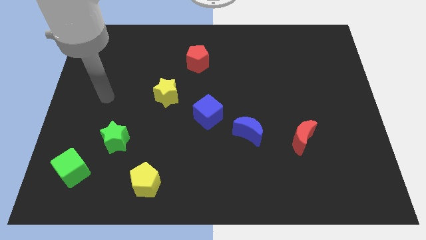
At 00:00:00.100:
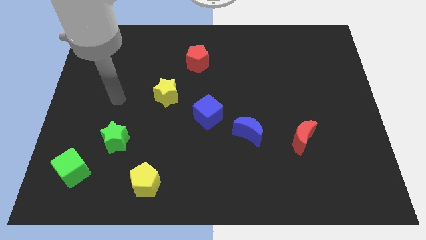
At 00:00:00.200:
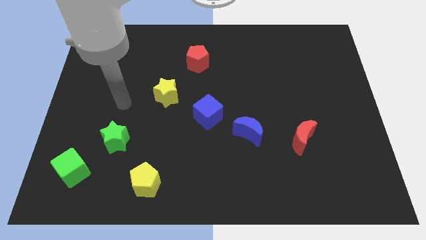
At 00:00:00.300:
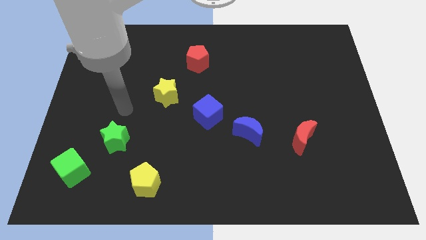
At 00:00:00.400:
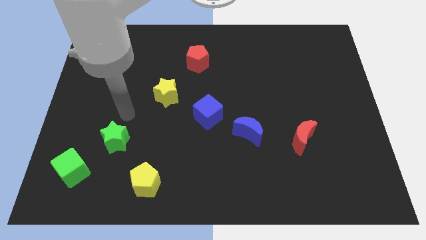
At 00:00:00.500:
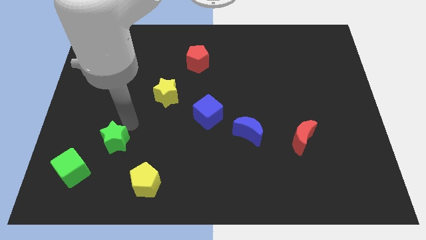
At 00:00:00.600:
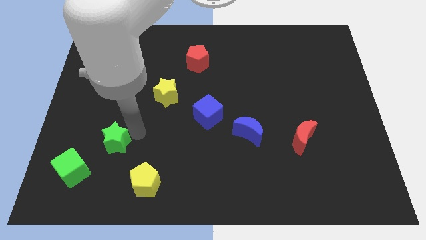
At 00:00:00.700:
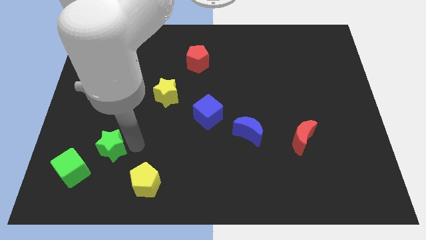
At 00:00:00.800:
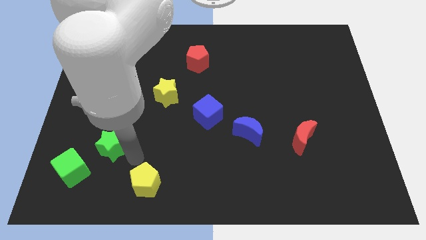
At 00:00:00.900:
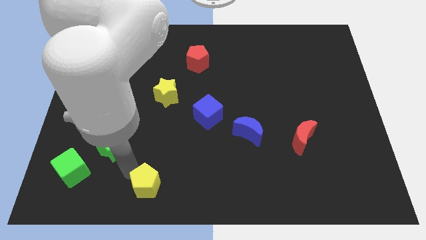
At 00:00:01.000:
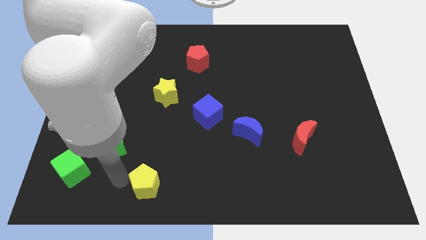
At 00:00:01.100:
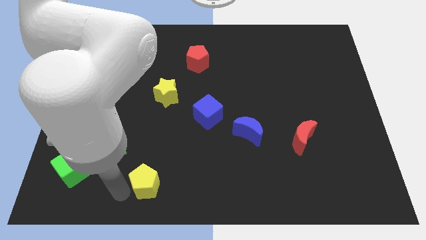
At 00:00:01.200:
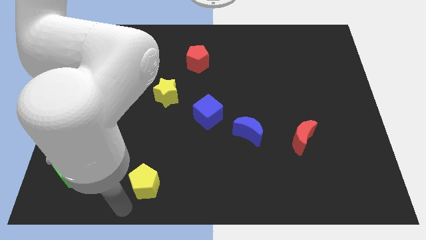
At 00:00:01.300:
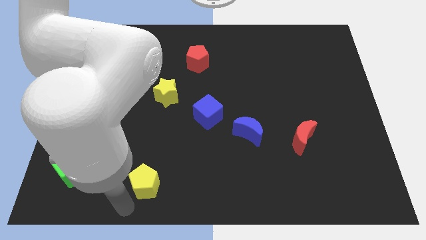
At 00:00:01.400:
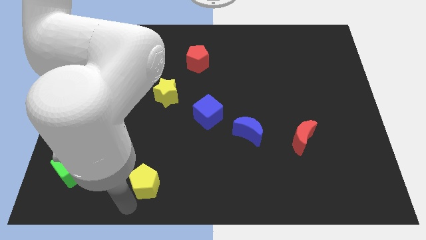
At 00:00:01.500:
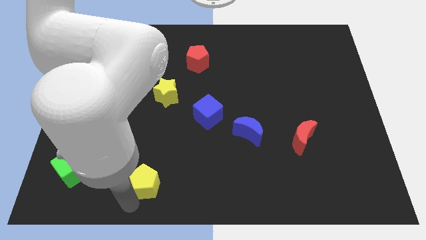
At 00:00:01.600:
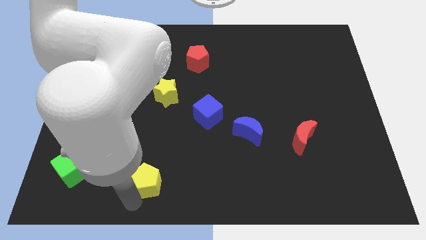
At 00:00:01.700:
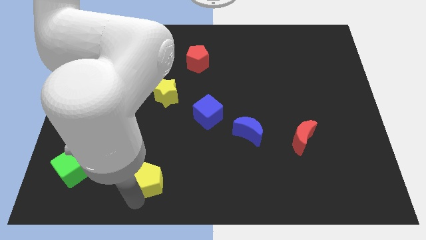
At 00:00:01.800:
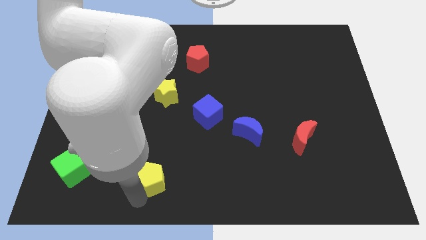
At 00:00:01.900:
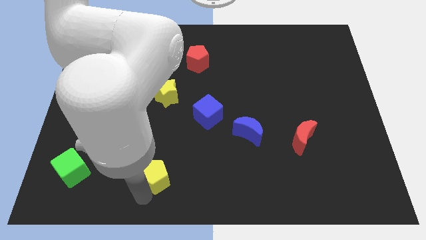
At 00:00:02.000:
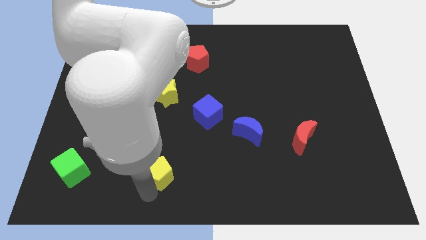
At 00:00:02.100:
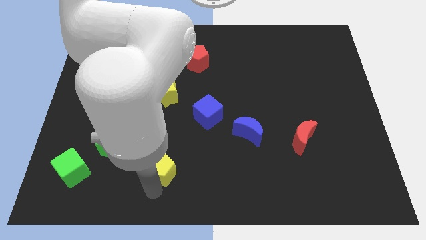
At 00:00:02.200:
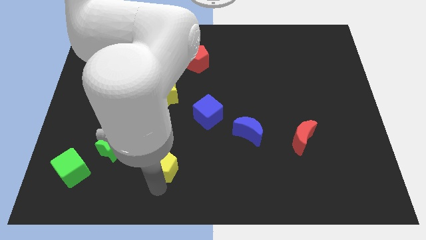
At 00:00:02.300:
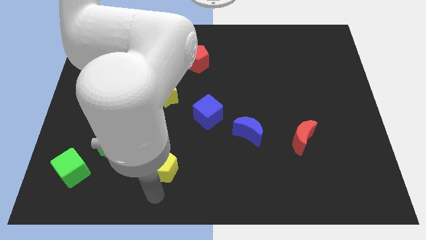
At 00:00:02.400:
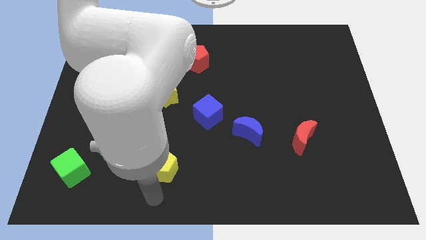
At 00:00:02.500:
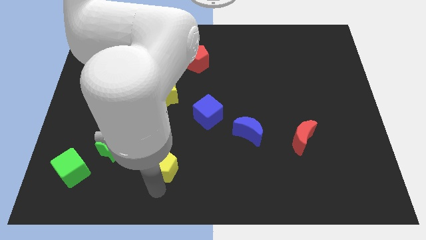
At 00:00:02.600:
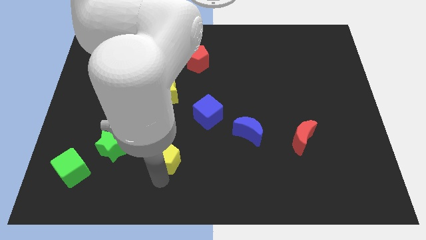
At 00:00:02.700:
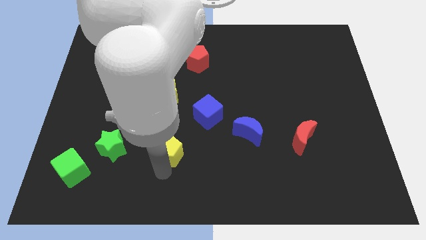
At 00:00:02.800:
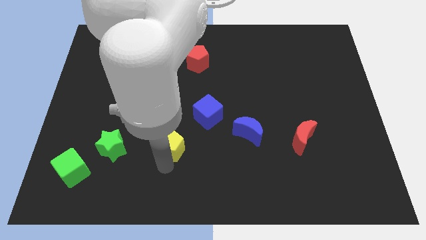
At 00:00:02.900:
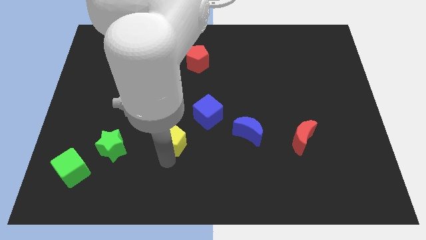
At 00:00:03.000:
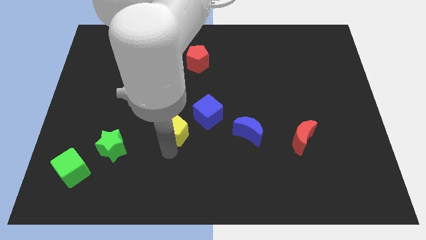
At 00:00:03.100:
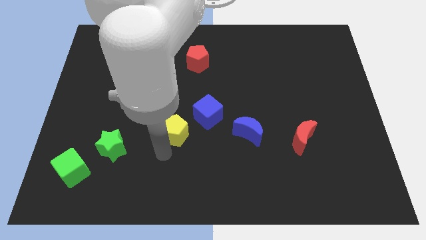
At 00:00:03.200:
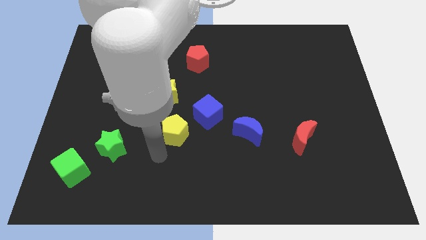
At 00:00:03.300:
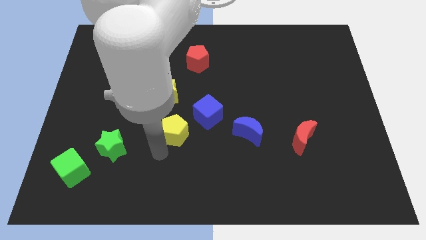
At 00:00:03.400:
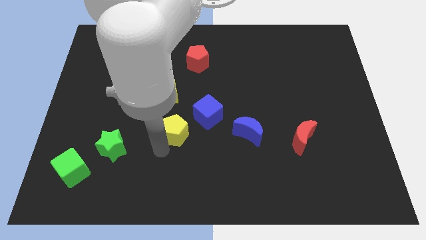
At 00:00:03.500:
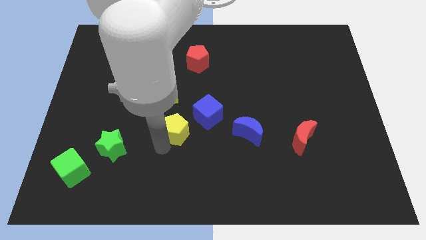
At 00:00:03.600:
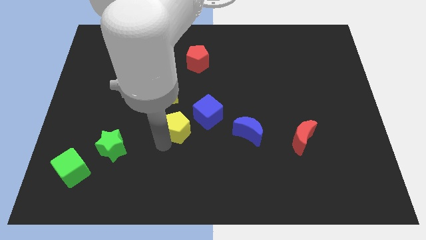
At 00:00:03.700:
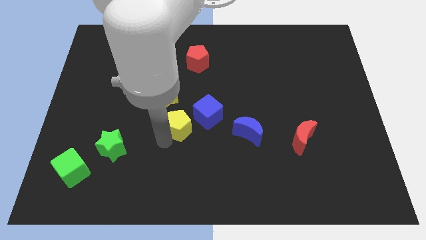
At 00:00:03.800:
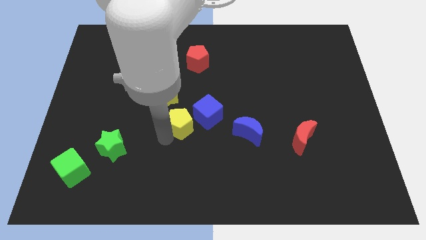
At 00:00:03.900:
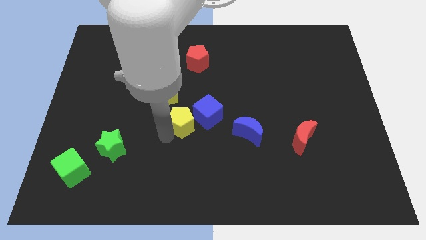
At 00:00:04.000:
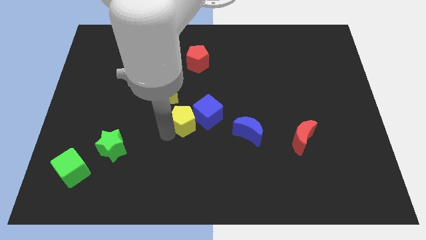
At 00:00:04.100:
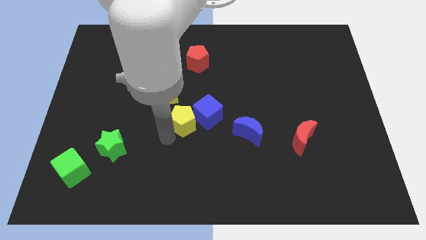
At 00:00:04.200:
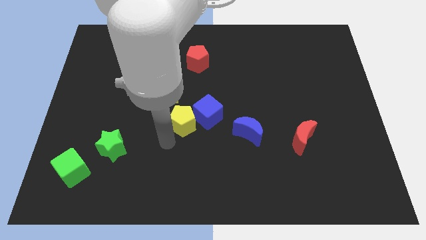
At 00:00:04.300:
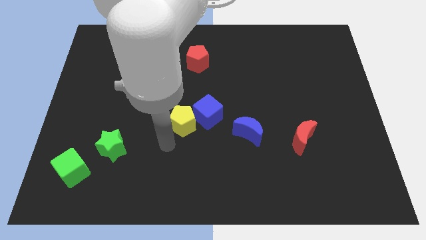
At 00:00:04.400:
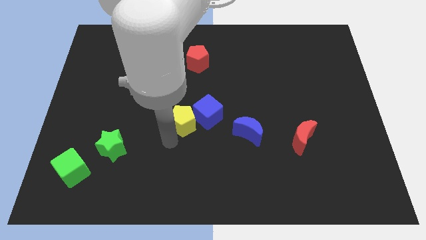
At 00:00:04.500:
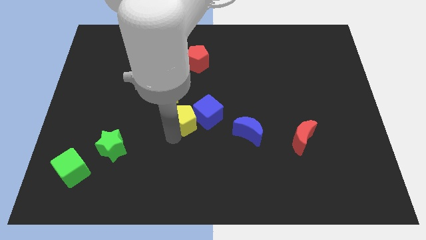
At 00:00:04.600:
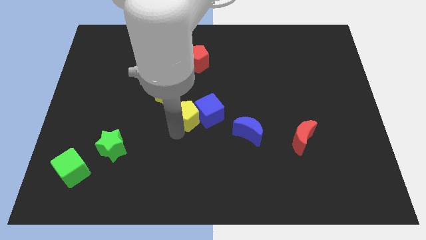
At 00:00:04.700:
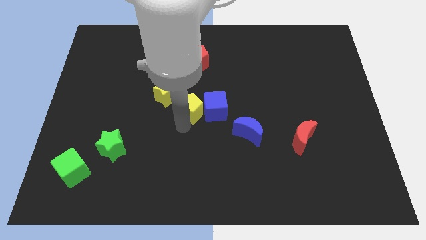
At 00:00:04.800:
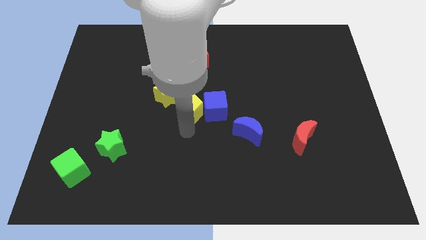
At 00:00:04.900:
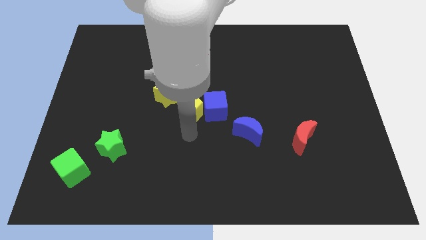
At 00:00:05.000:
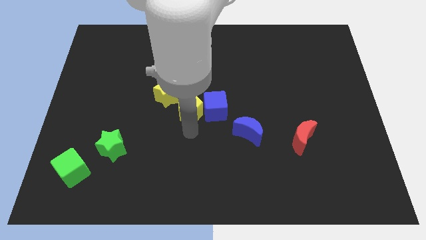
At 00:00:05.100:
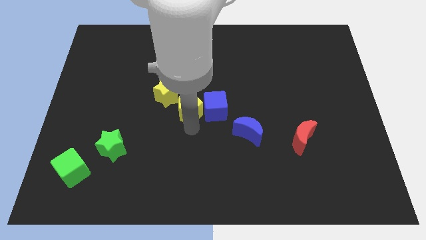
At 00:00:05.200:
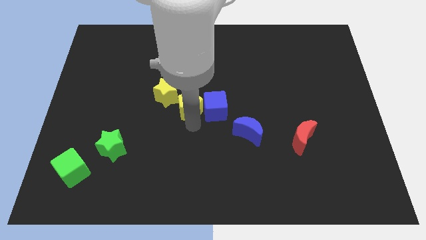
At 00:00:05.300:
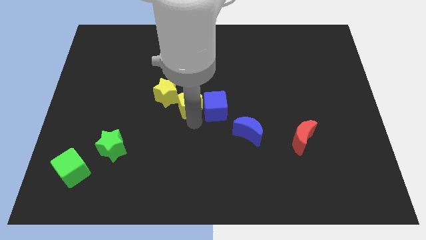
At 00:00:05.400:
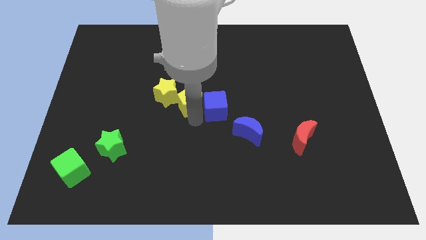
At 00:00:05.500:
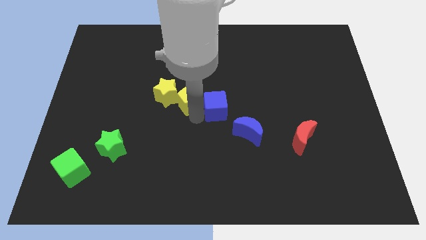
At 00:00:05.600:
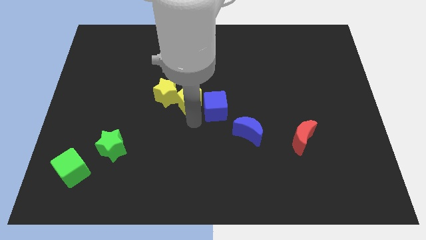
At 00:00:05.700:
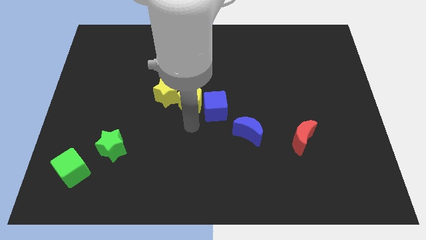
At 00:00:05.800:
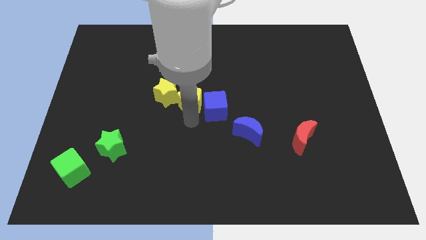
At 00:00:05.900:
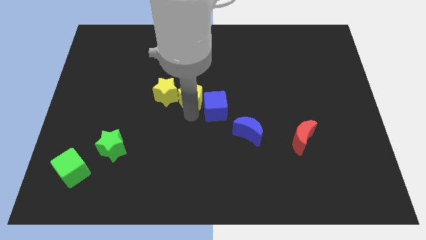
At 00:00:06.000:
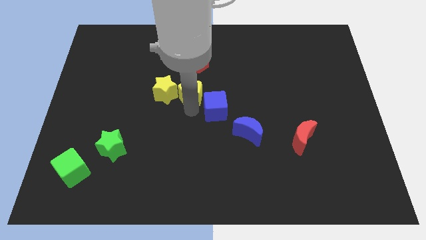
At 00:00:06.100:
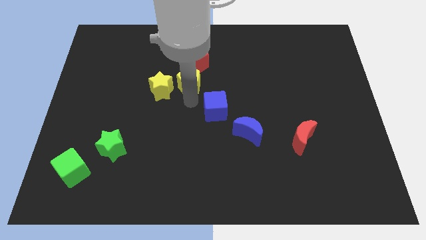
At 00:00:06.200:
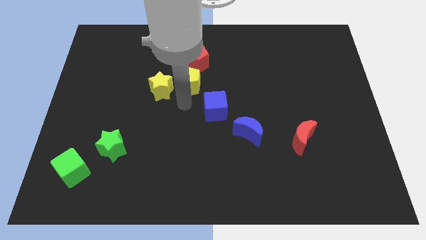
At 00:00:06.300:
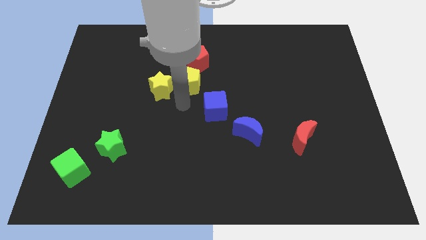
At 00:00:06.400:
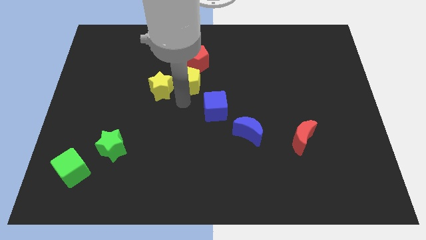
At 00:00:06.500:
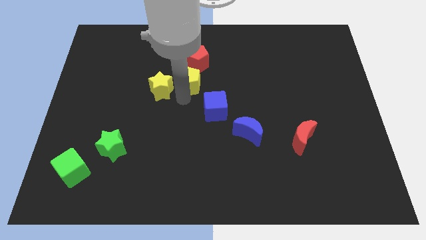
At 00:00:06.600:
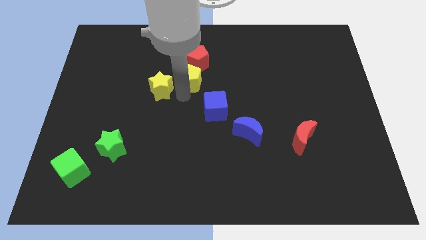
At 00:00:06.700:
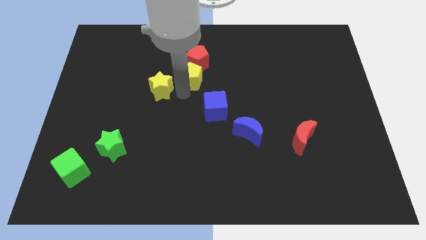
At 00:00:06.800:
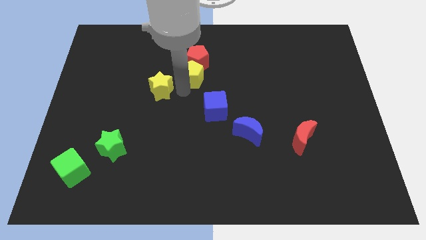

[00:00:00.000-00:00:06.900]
push the yellow pentagon next to the red pentagon
